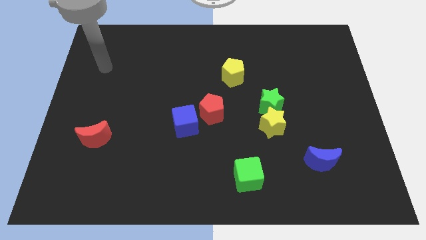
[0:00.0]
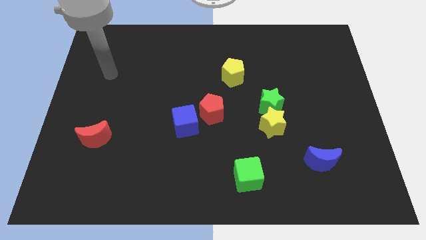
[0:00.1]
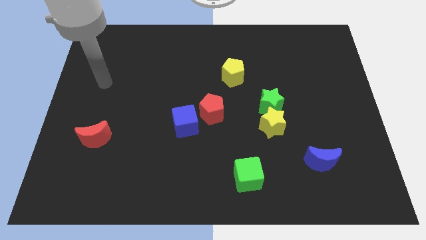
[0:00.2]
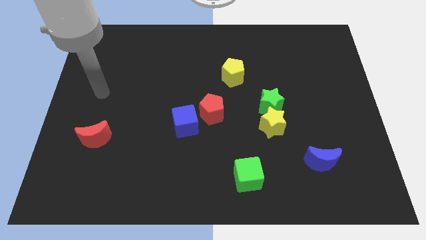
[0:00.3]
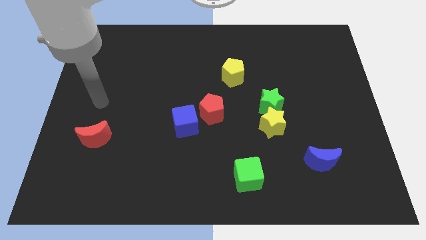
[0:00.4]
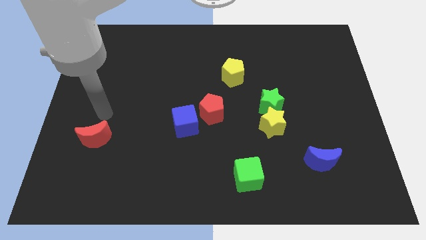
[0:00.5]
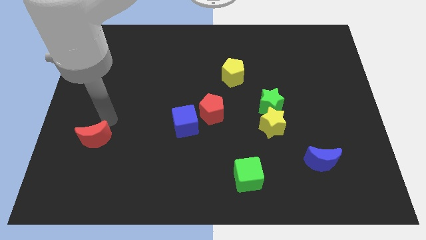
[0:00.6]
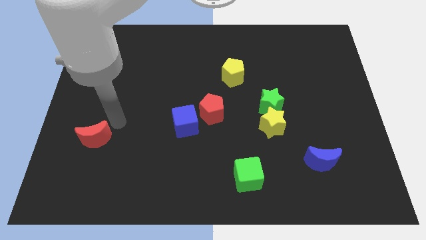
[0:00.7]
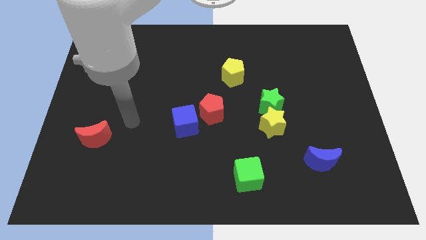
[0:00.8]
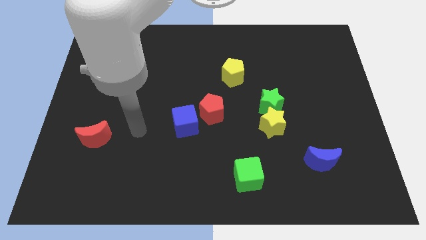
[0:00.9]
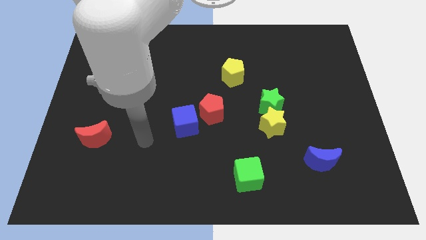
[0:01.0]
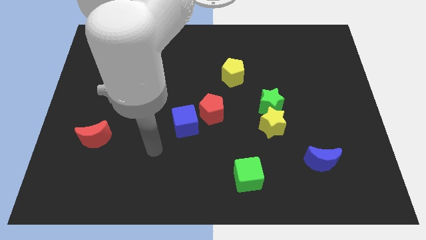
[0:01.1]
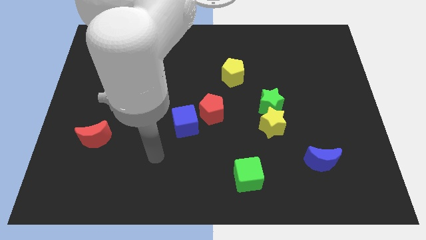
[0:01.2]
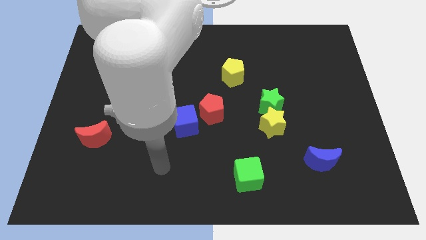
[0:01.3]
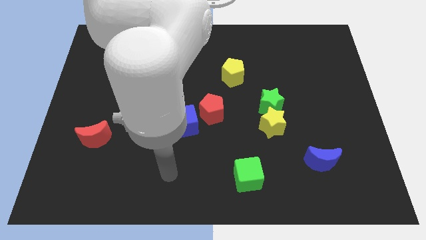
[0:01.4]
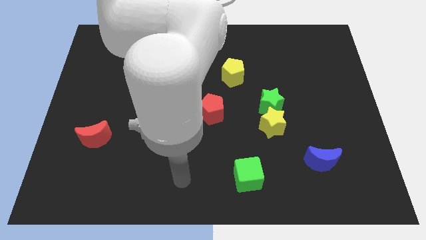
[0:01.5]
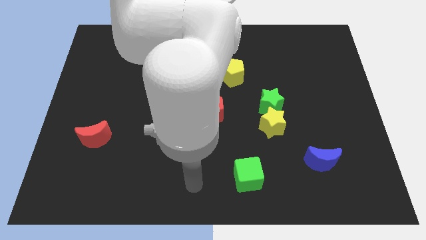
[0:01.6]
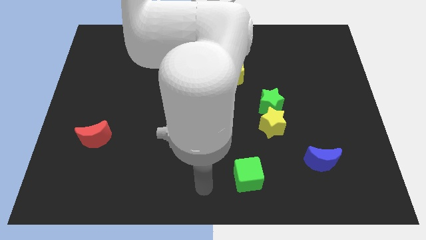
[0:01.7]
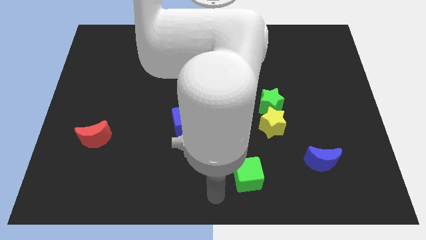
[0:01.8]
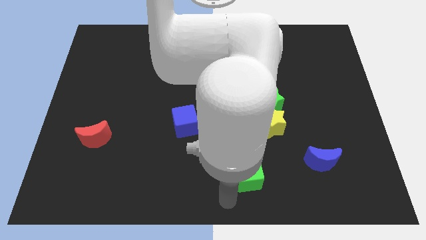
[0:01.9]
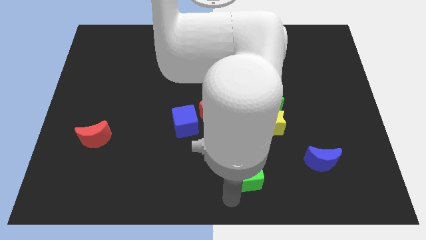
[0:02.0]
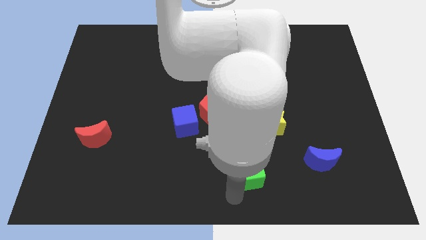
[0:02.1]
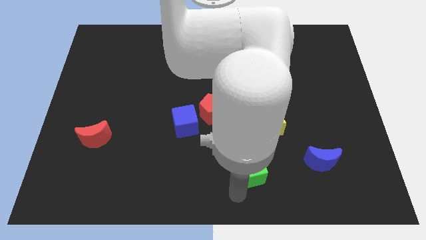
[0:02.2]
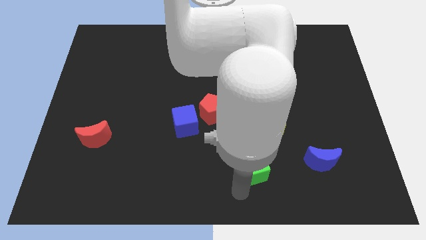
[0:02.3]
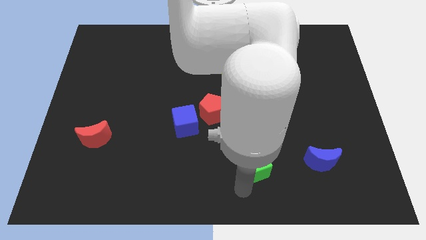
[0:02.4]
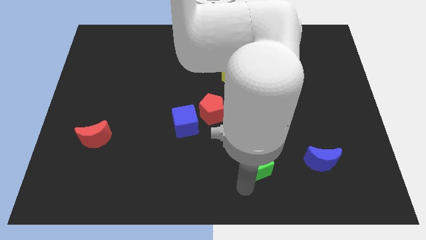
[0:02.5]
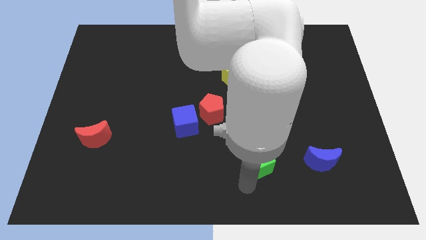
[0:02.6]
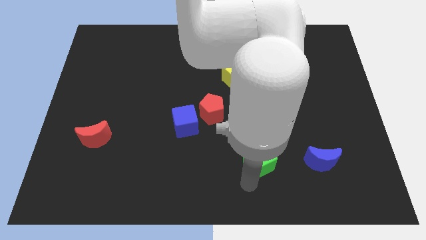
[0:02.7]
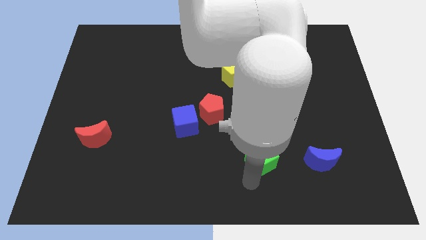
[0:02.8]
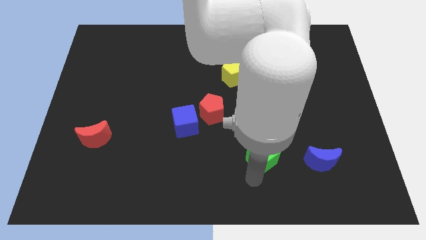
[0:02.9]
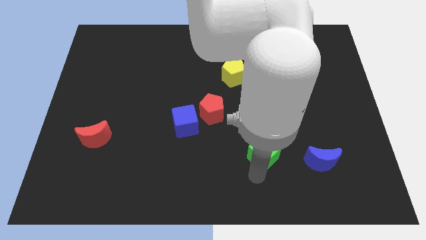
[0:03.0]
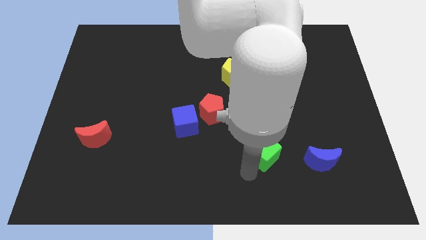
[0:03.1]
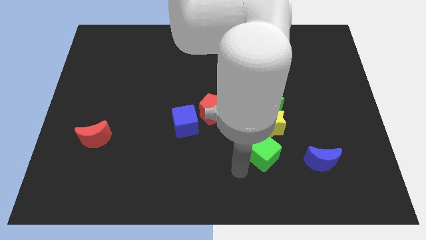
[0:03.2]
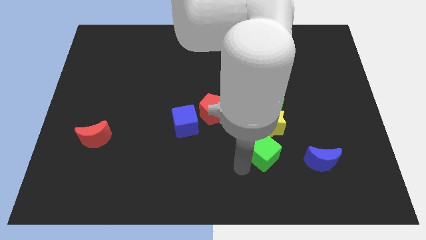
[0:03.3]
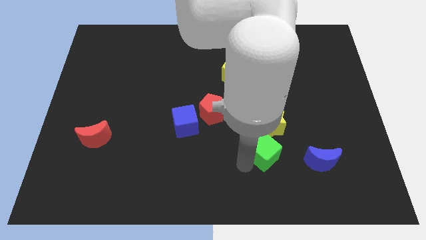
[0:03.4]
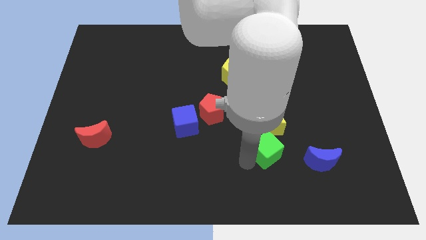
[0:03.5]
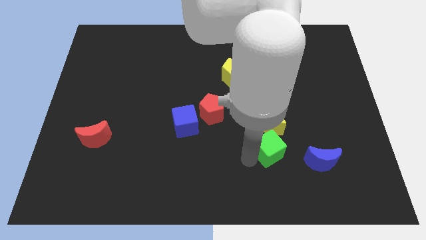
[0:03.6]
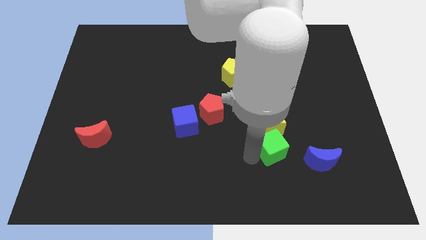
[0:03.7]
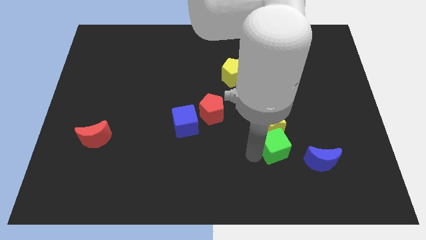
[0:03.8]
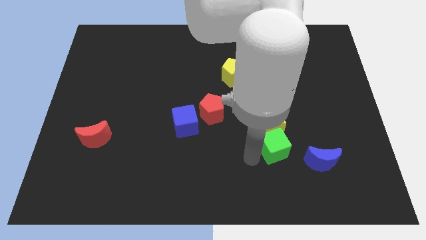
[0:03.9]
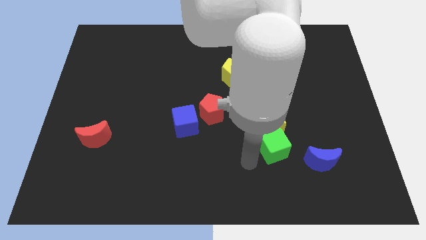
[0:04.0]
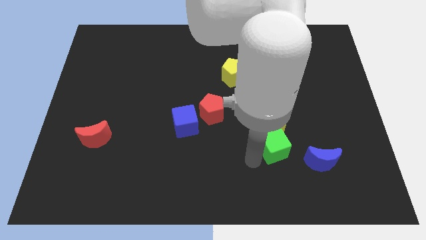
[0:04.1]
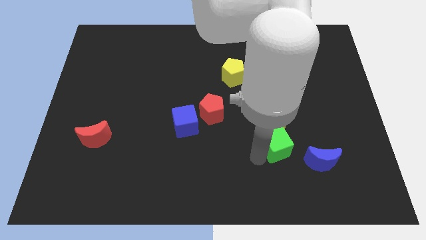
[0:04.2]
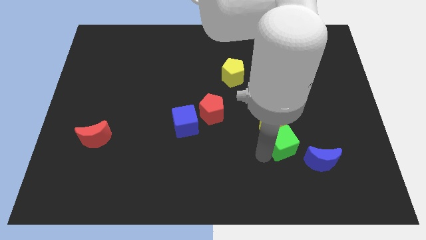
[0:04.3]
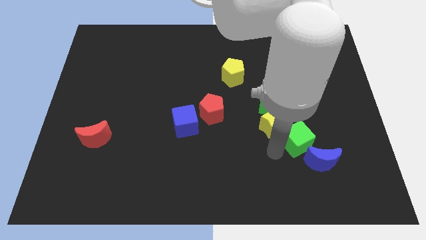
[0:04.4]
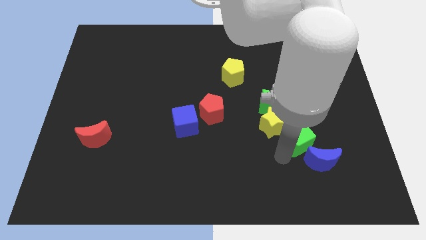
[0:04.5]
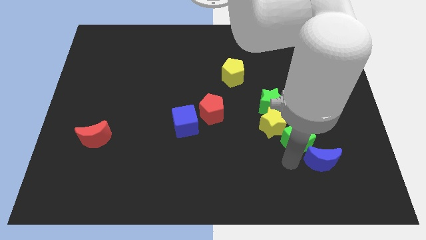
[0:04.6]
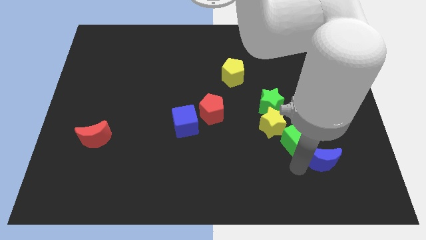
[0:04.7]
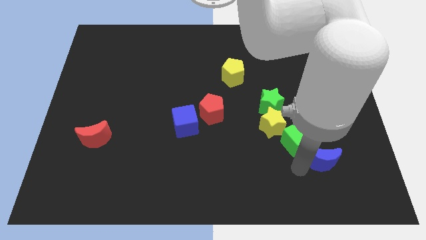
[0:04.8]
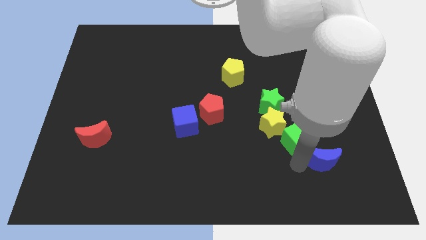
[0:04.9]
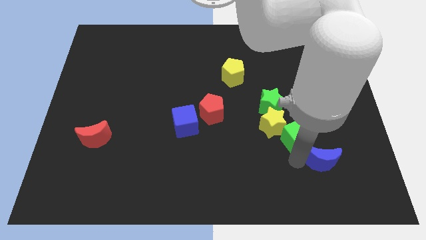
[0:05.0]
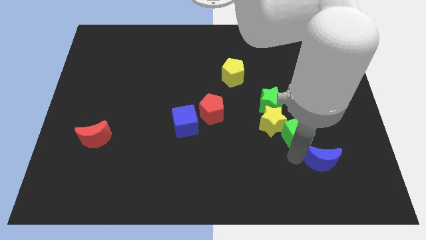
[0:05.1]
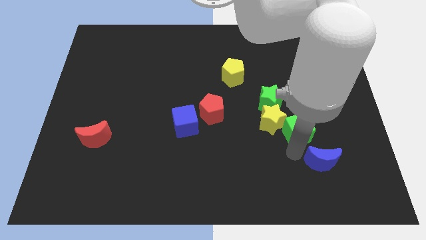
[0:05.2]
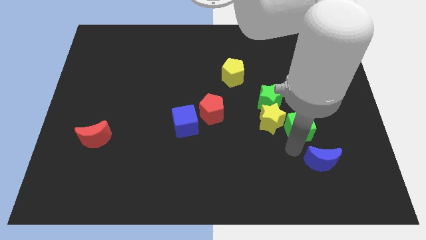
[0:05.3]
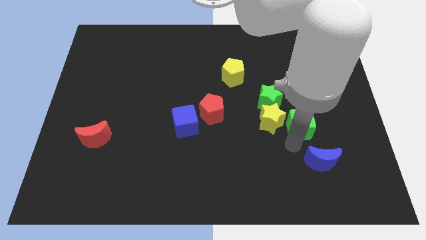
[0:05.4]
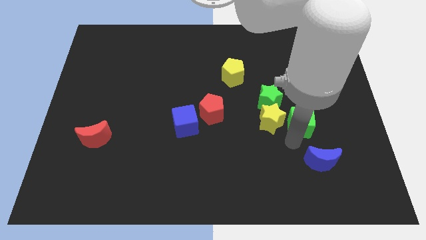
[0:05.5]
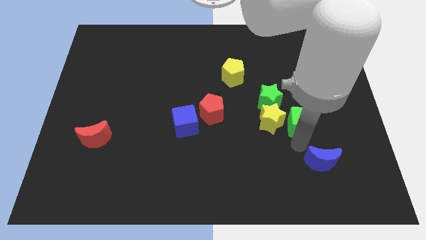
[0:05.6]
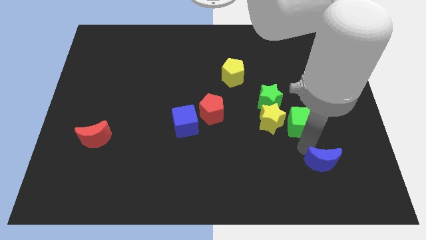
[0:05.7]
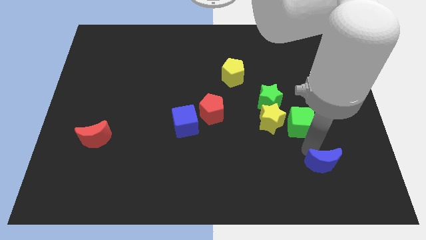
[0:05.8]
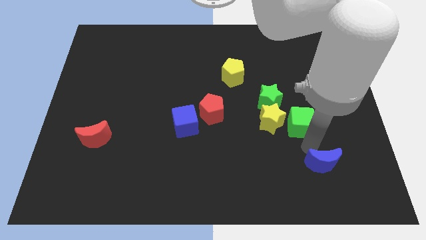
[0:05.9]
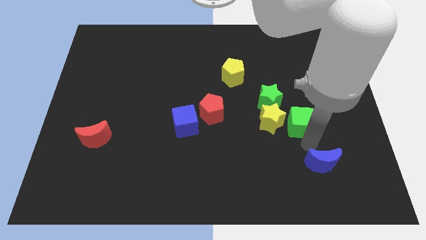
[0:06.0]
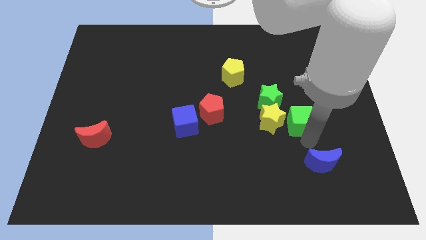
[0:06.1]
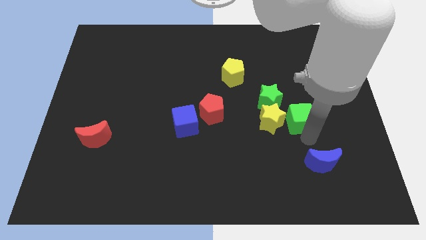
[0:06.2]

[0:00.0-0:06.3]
put the green cube to the top right of the yellow star

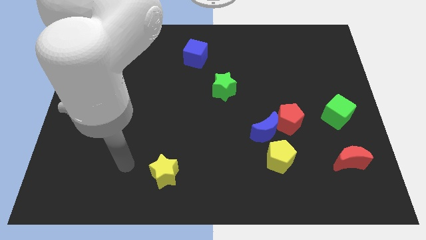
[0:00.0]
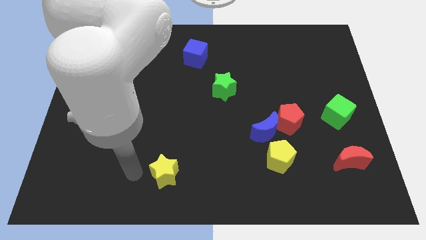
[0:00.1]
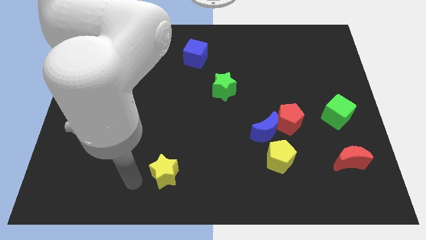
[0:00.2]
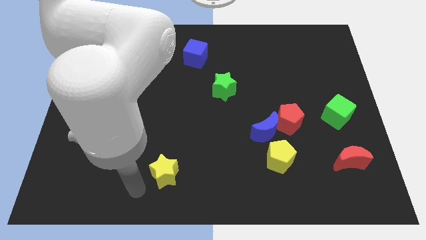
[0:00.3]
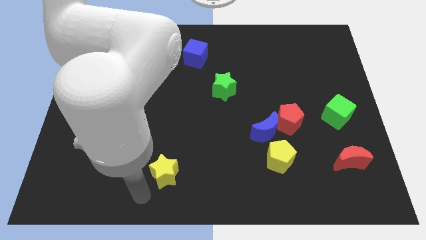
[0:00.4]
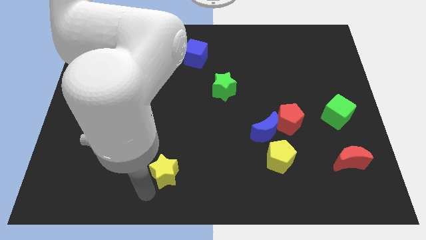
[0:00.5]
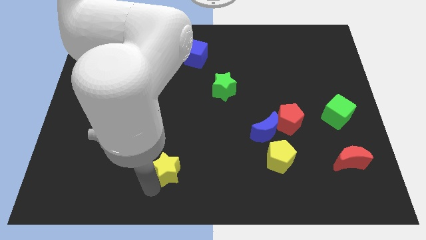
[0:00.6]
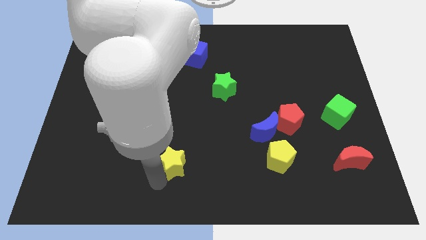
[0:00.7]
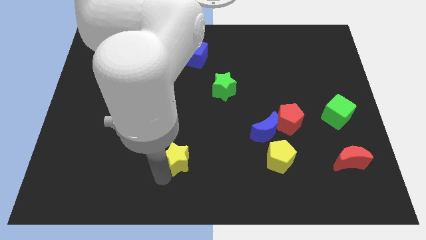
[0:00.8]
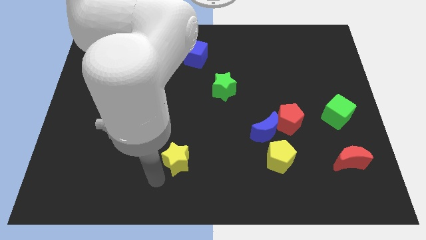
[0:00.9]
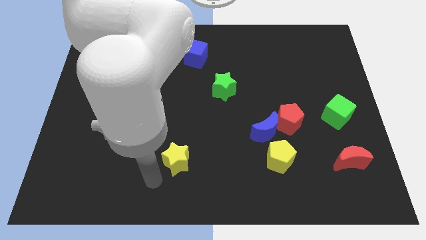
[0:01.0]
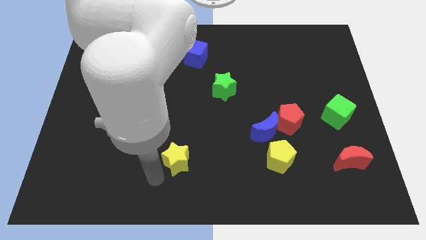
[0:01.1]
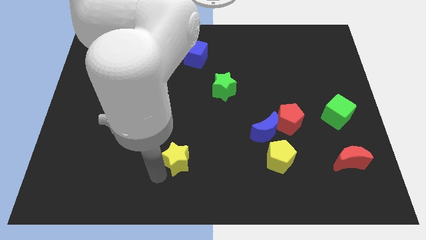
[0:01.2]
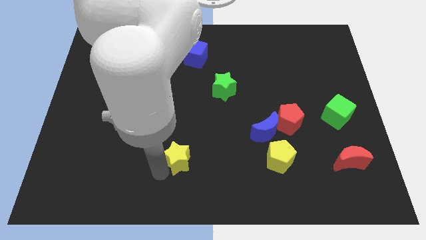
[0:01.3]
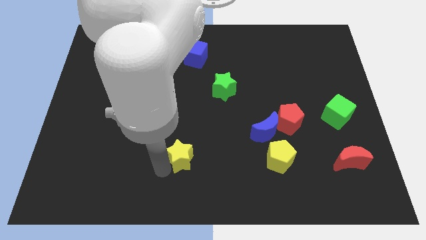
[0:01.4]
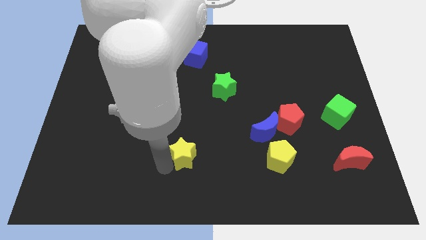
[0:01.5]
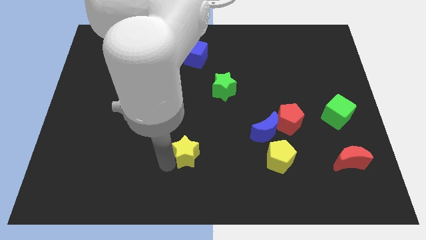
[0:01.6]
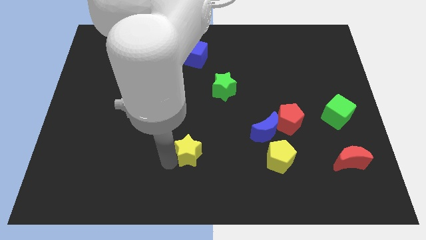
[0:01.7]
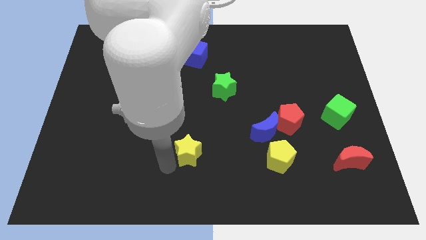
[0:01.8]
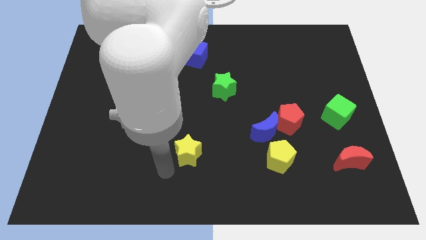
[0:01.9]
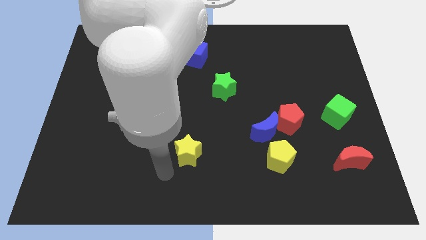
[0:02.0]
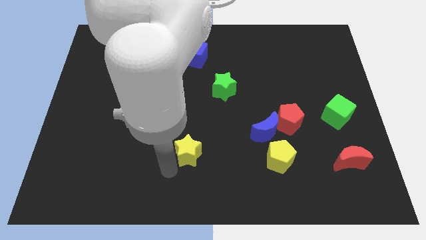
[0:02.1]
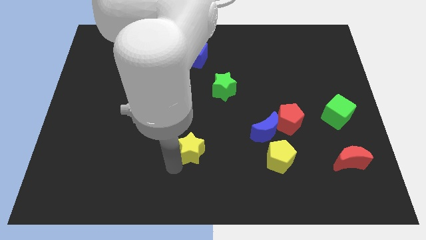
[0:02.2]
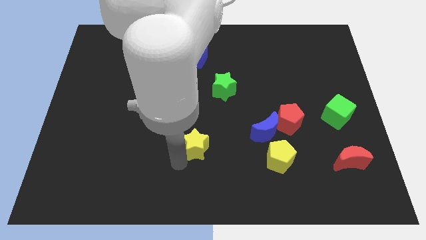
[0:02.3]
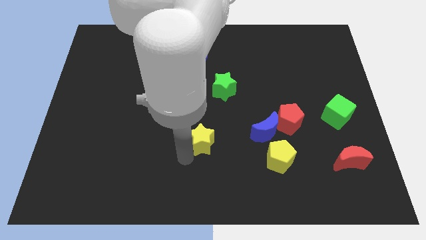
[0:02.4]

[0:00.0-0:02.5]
put the yellow star left of the blue moon
